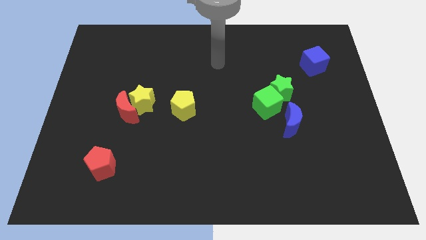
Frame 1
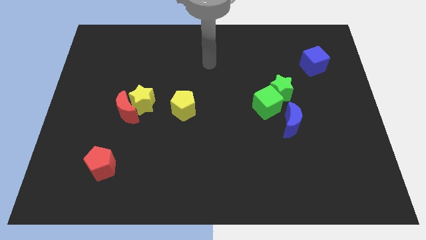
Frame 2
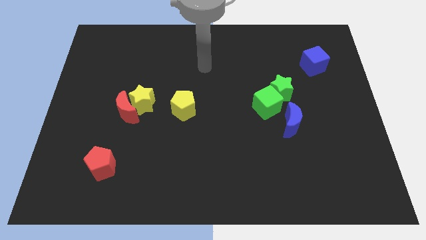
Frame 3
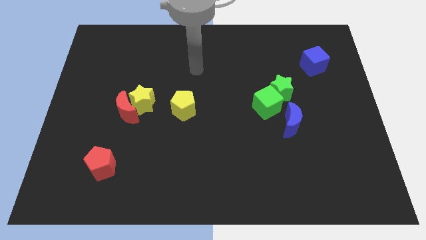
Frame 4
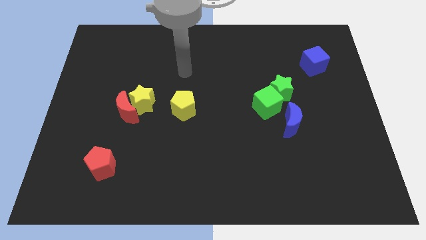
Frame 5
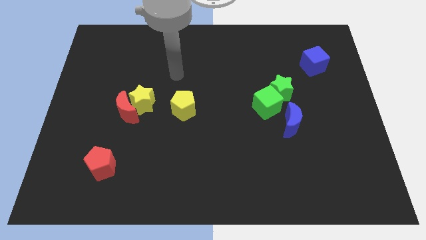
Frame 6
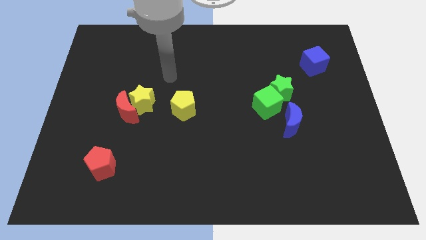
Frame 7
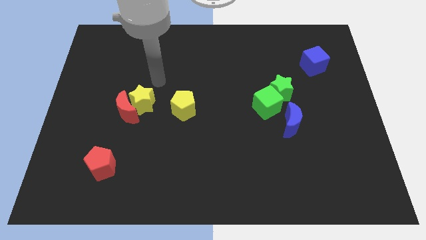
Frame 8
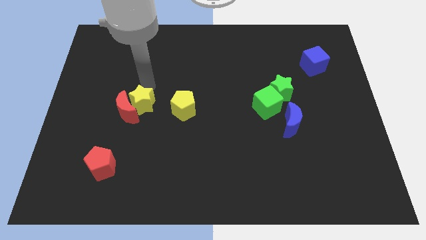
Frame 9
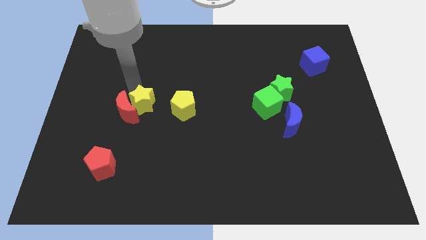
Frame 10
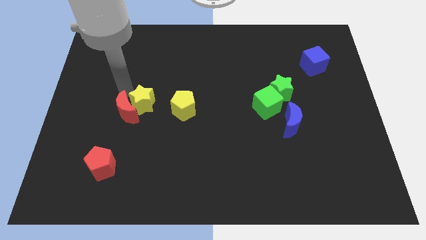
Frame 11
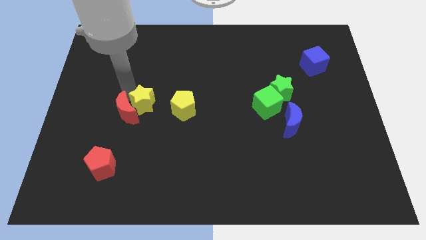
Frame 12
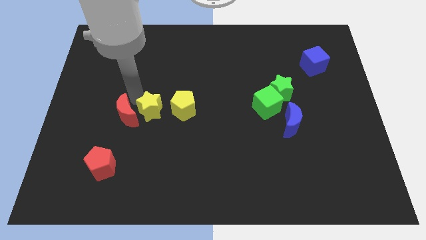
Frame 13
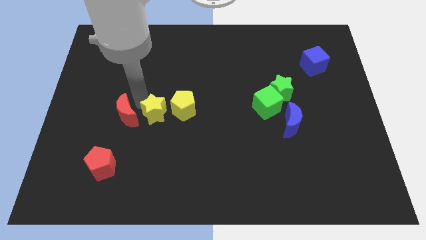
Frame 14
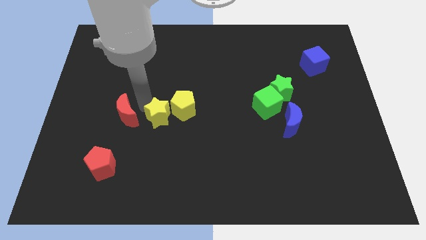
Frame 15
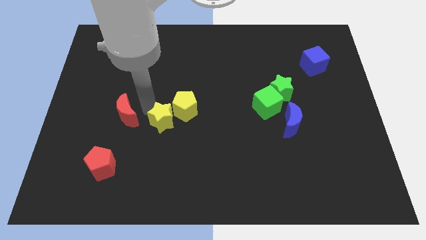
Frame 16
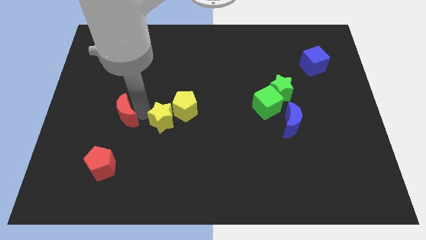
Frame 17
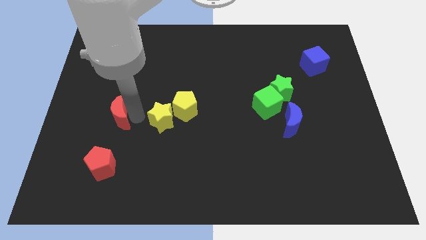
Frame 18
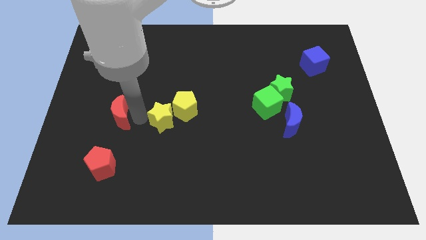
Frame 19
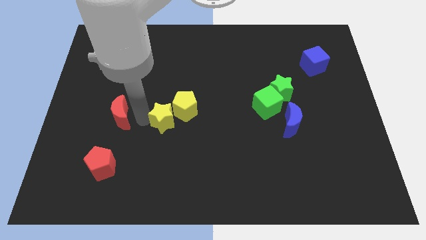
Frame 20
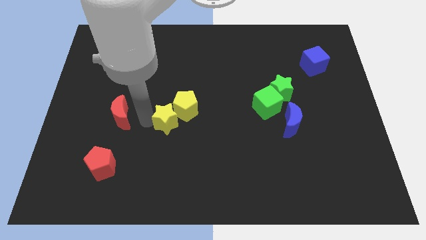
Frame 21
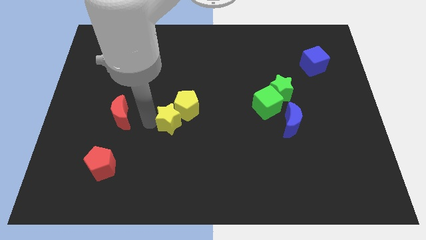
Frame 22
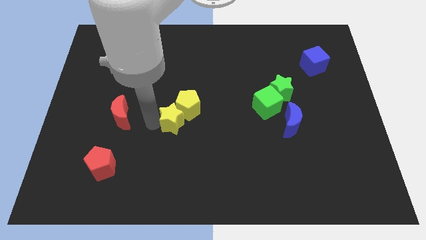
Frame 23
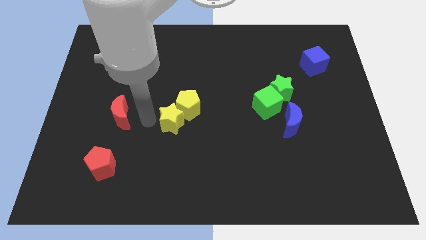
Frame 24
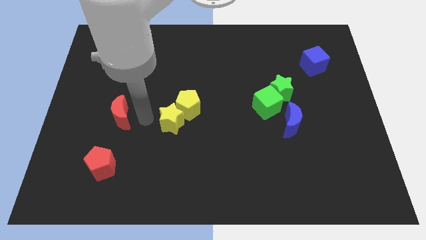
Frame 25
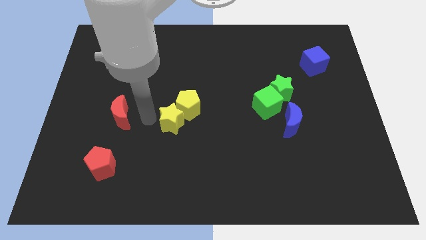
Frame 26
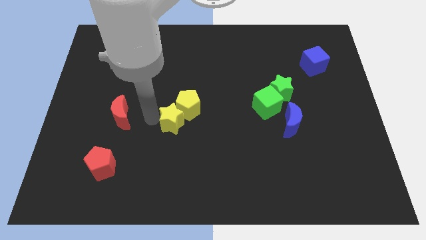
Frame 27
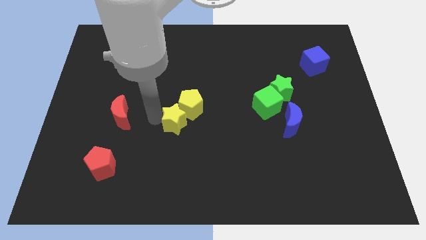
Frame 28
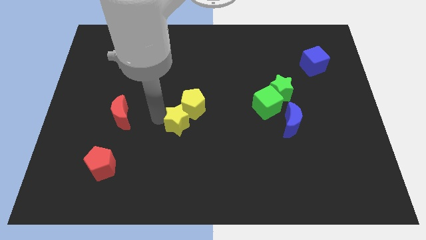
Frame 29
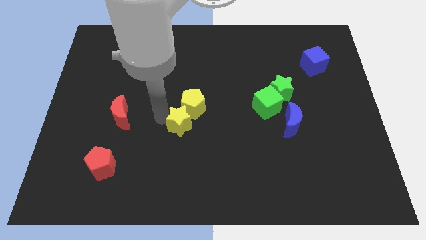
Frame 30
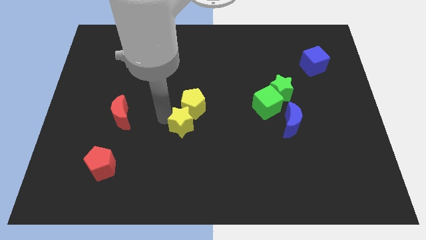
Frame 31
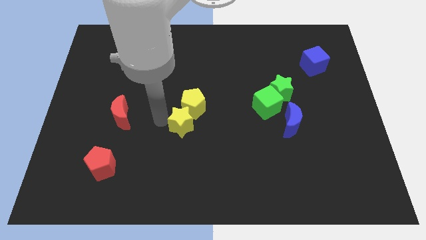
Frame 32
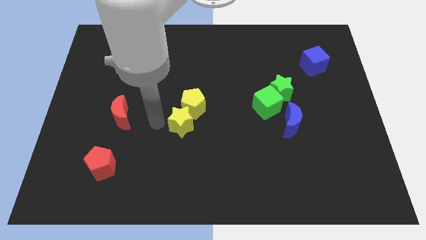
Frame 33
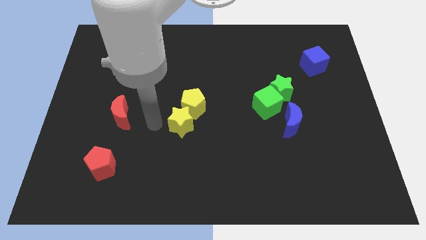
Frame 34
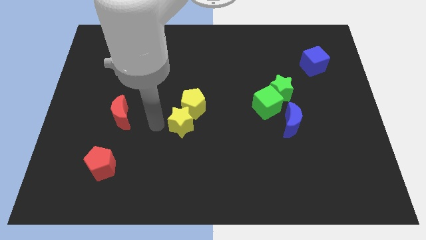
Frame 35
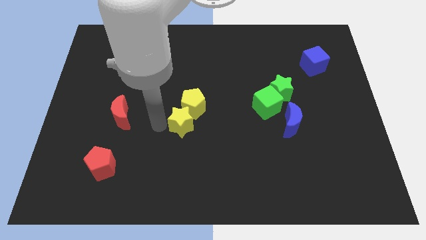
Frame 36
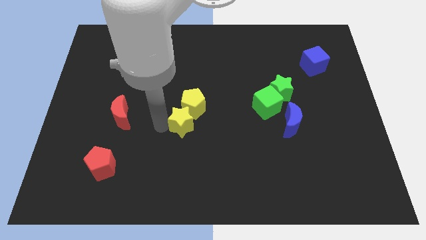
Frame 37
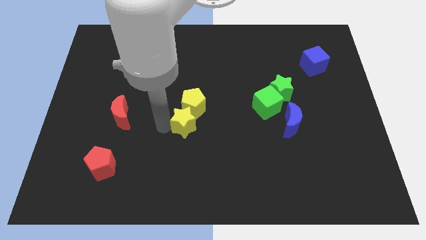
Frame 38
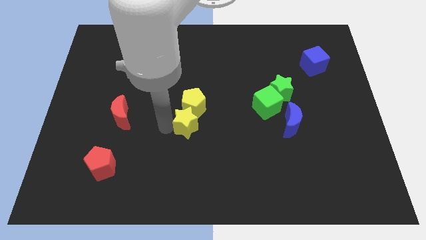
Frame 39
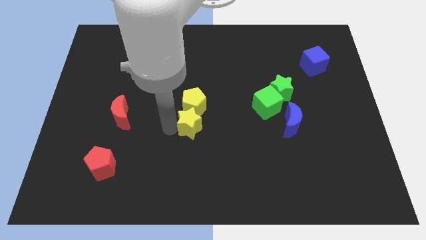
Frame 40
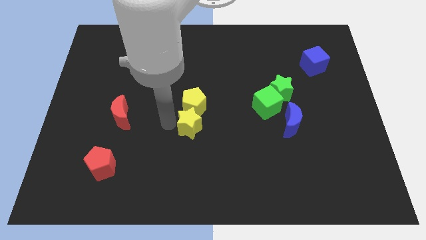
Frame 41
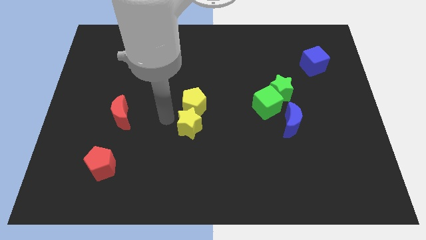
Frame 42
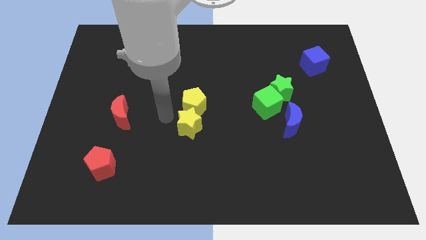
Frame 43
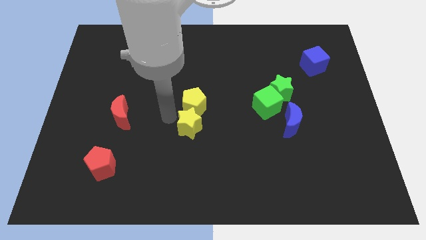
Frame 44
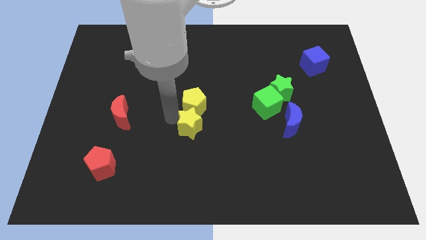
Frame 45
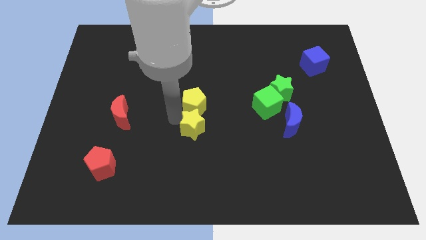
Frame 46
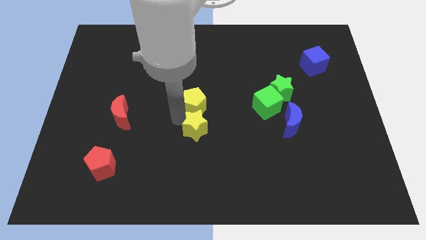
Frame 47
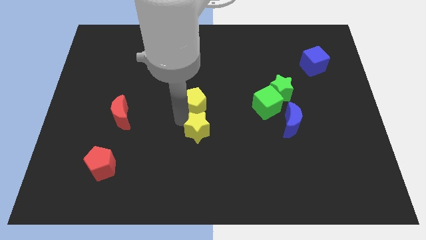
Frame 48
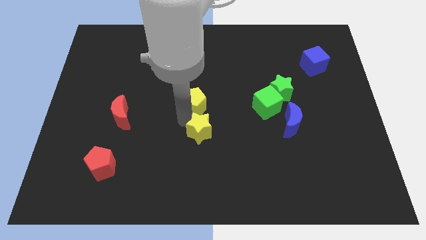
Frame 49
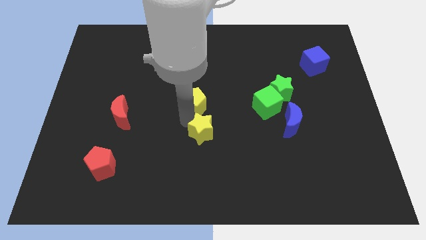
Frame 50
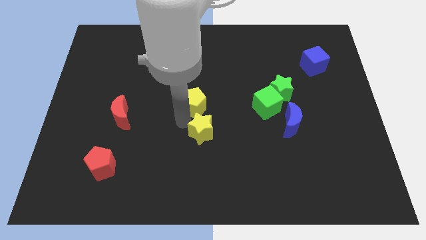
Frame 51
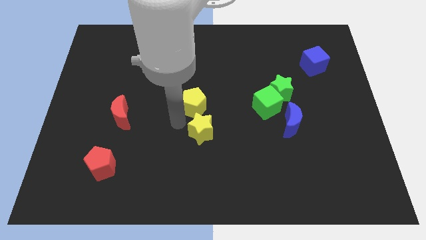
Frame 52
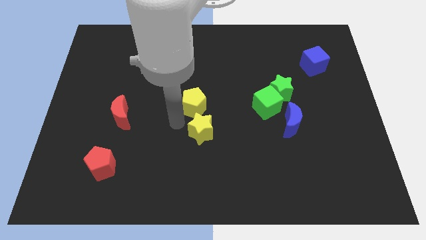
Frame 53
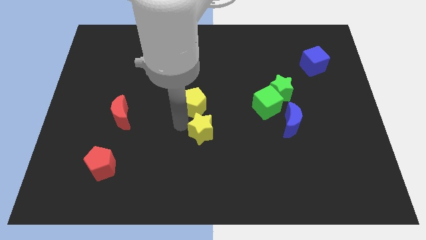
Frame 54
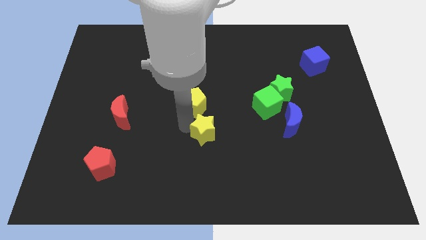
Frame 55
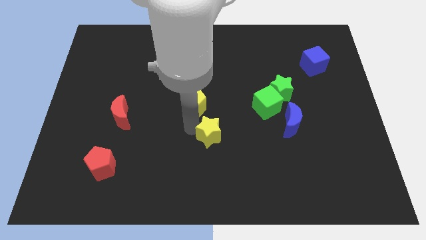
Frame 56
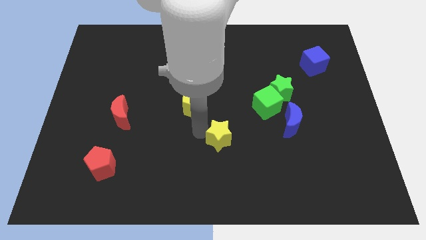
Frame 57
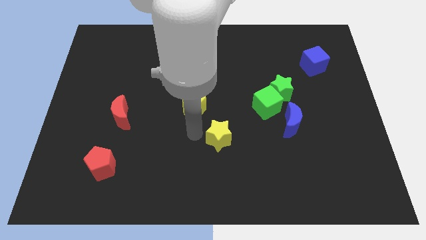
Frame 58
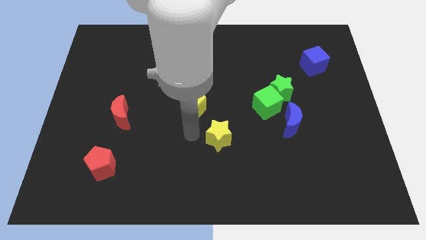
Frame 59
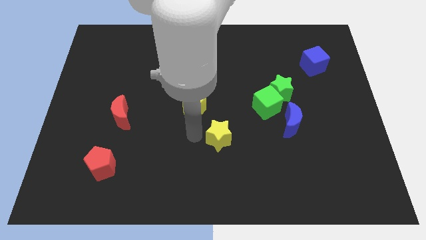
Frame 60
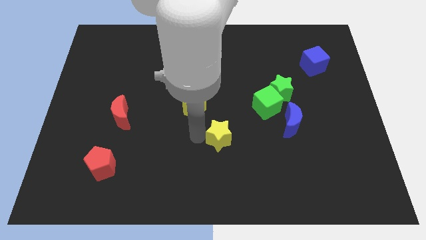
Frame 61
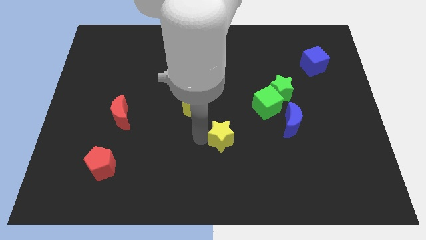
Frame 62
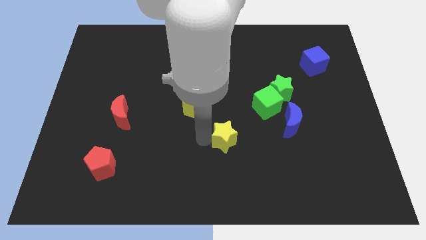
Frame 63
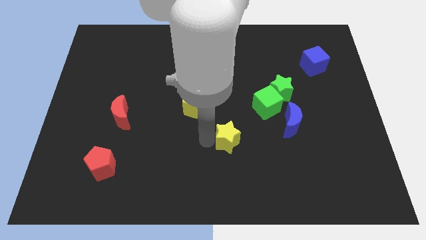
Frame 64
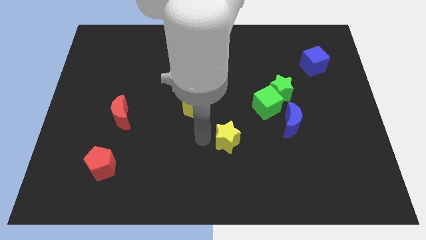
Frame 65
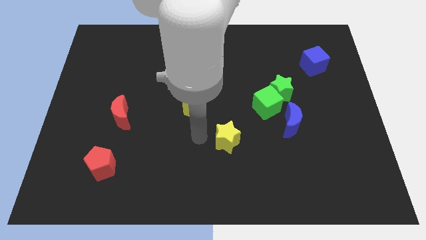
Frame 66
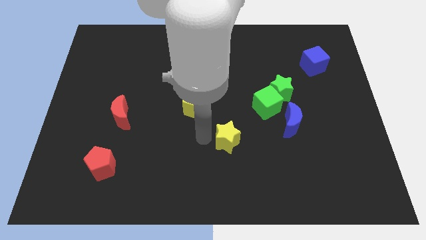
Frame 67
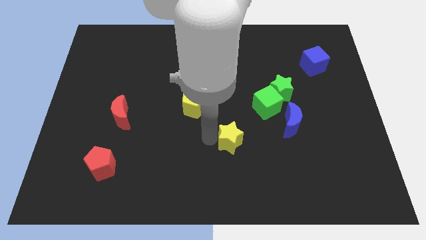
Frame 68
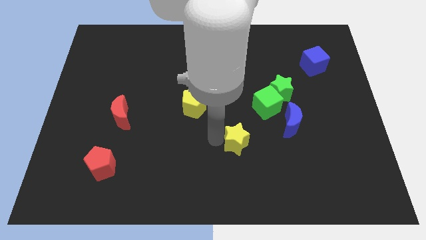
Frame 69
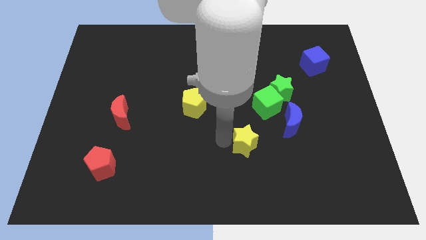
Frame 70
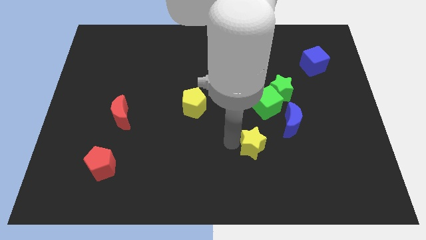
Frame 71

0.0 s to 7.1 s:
push the yellow star to the bottom of the green cube

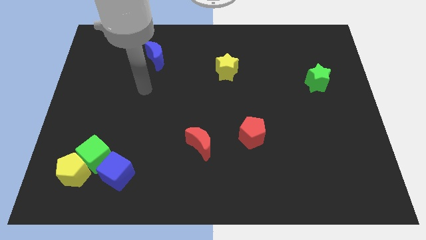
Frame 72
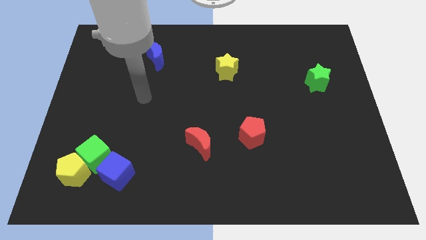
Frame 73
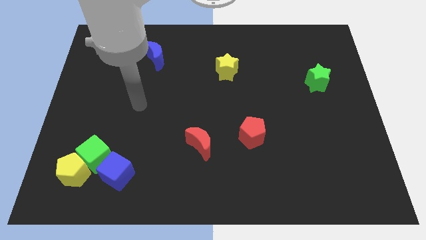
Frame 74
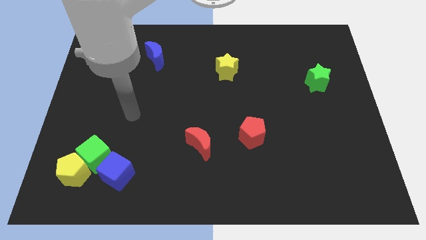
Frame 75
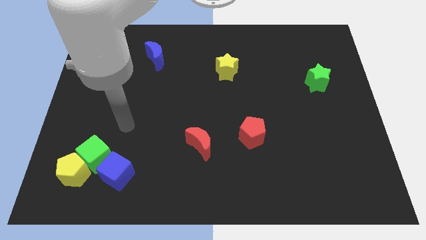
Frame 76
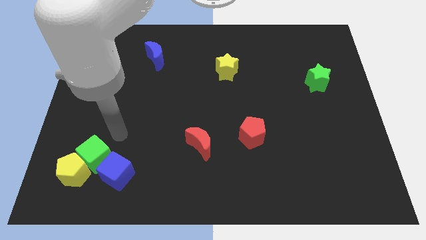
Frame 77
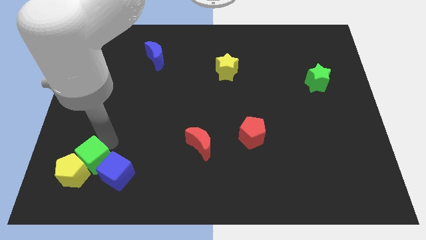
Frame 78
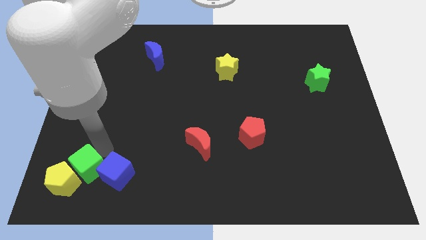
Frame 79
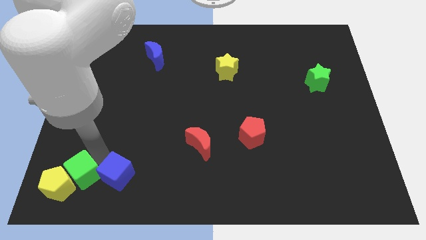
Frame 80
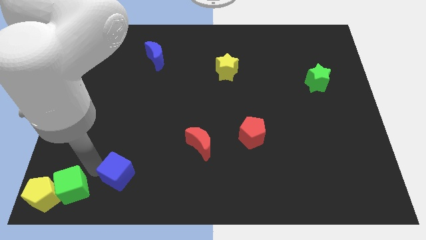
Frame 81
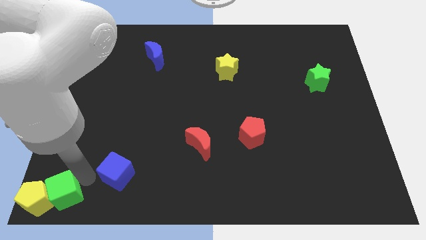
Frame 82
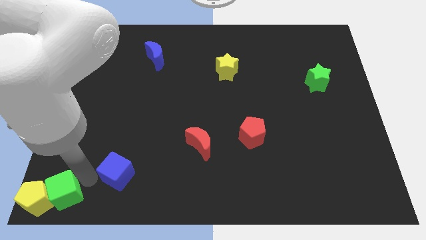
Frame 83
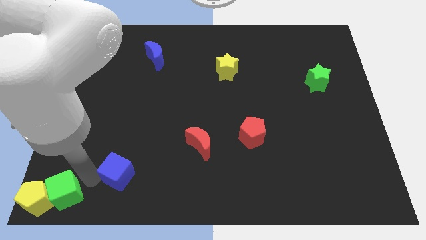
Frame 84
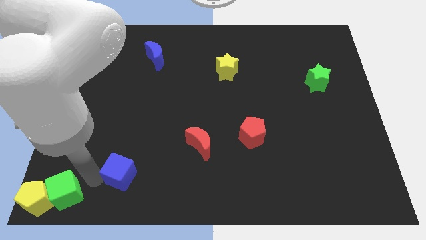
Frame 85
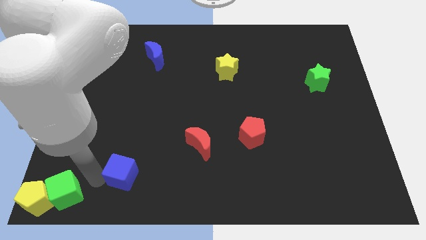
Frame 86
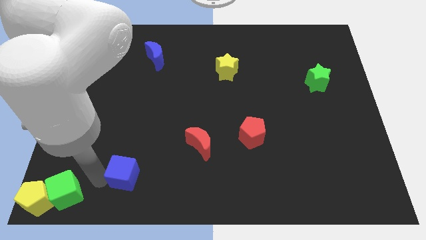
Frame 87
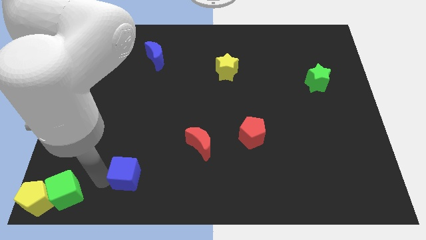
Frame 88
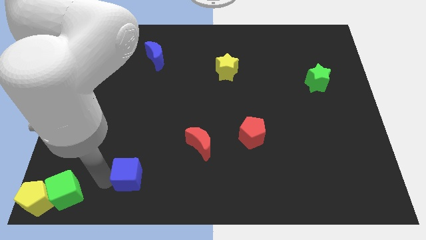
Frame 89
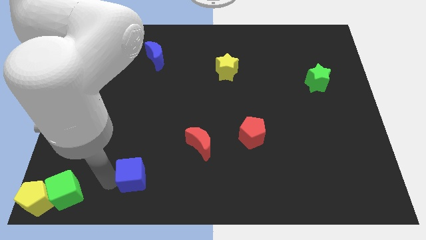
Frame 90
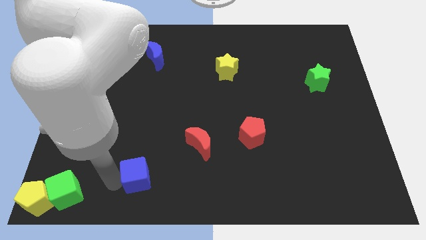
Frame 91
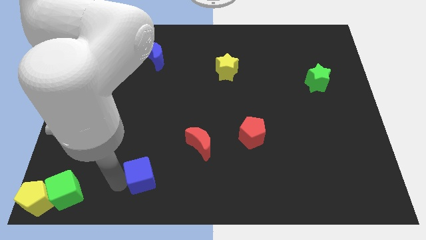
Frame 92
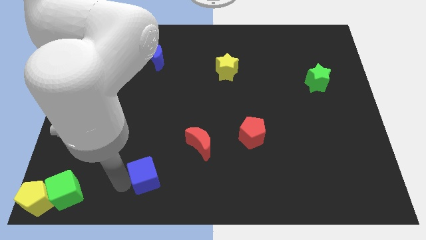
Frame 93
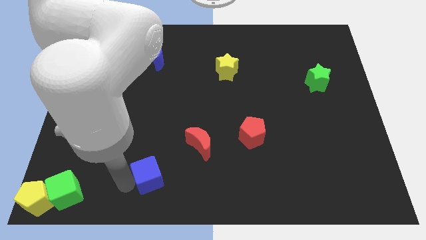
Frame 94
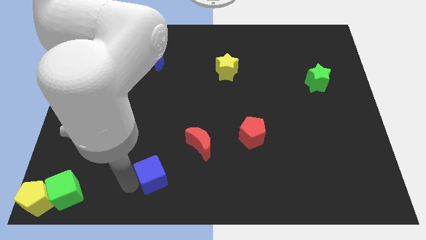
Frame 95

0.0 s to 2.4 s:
slide the blue cube to the bottom left side of the red moon
